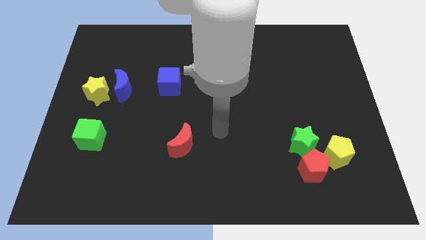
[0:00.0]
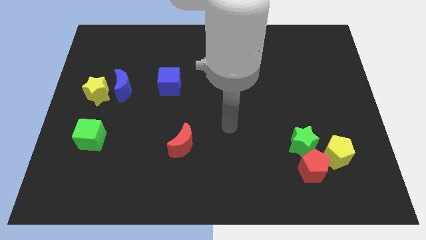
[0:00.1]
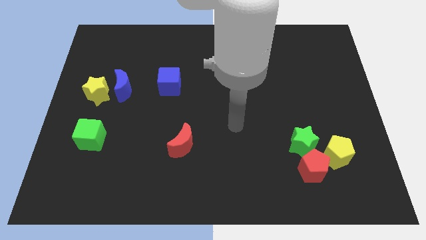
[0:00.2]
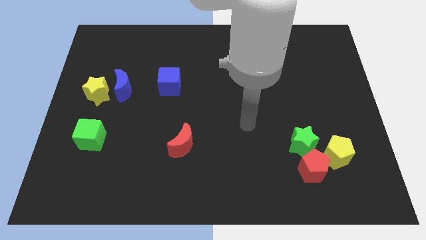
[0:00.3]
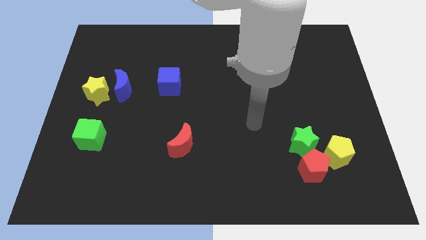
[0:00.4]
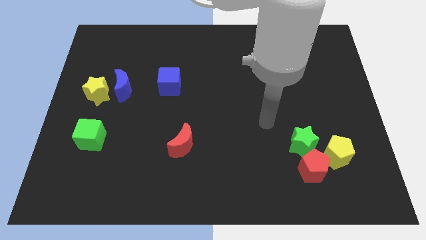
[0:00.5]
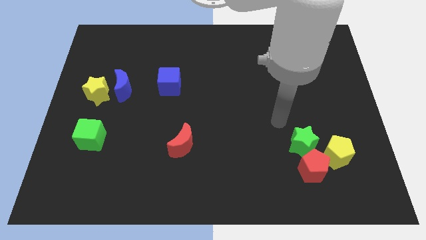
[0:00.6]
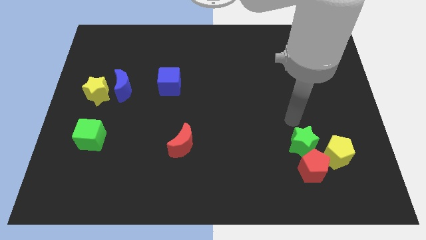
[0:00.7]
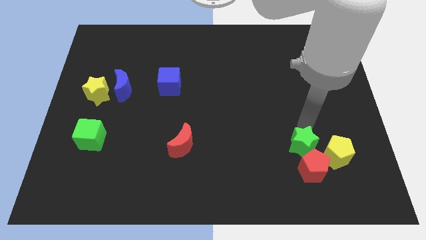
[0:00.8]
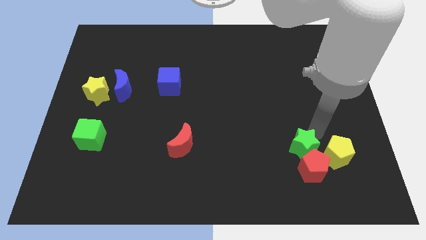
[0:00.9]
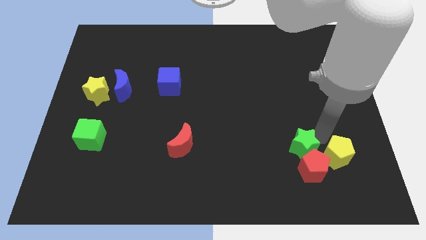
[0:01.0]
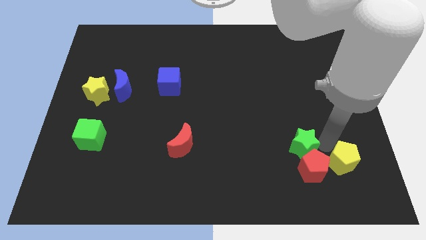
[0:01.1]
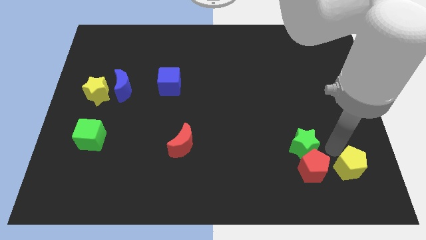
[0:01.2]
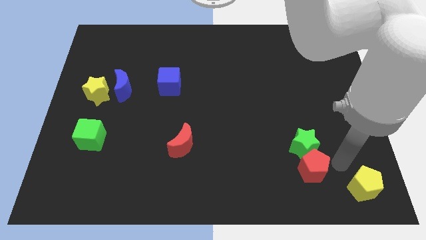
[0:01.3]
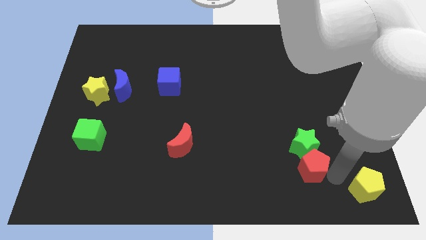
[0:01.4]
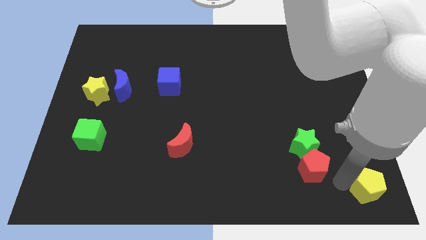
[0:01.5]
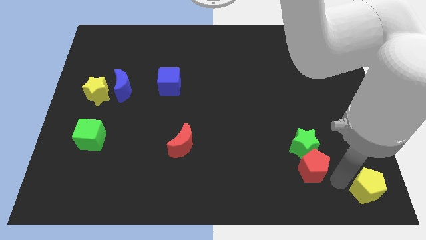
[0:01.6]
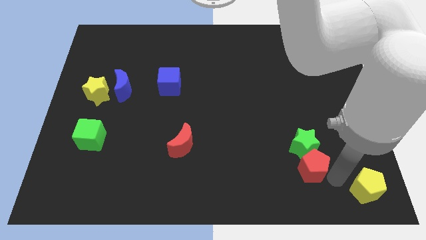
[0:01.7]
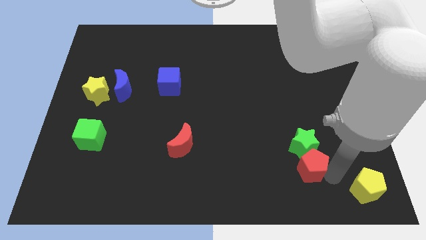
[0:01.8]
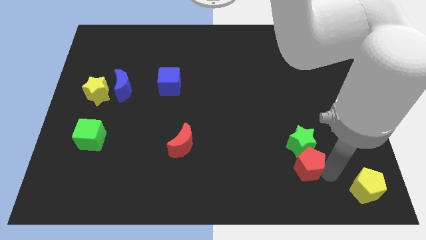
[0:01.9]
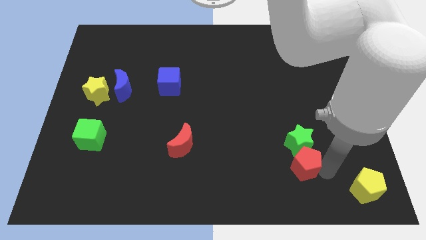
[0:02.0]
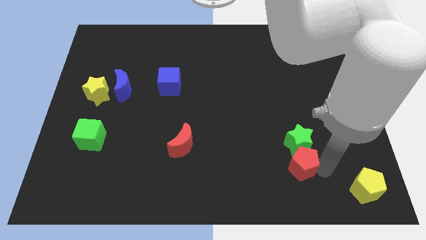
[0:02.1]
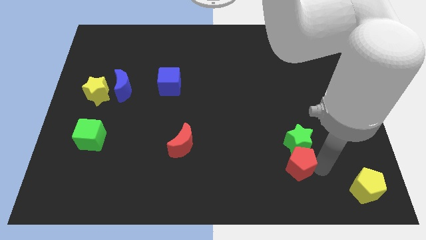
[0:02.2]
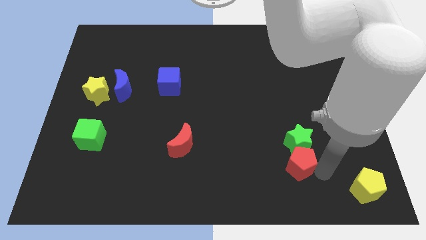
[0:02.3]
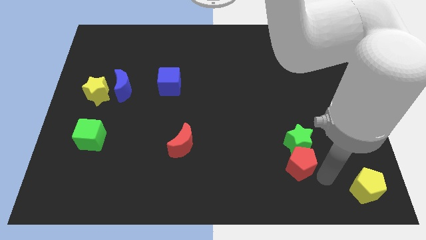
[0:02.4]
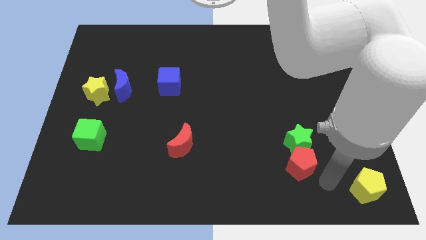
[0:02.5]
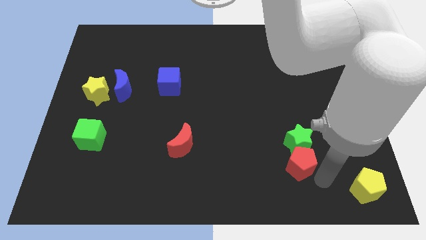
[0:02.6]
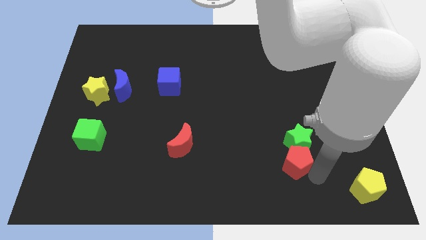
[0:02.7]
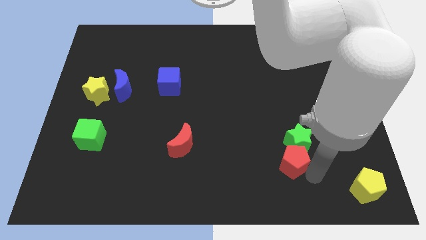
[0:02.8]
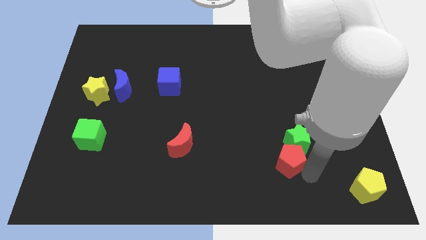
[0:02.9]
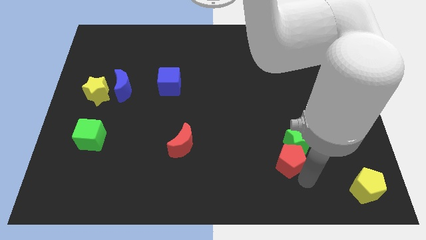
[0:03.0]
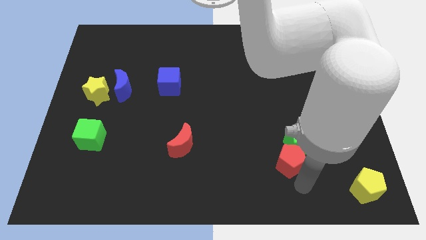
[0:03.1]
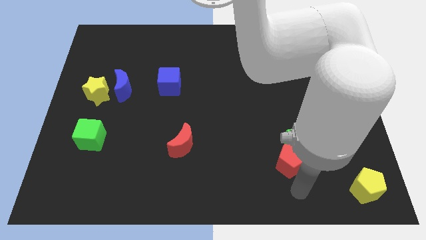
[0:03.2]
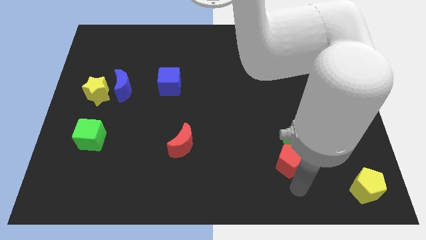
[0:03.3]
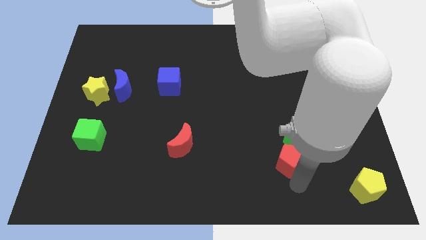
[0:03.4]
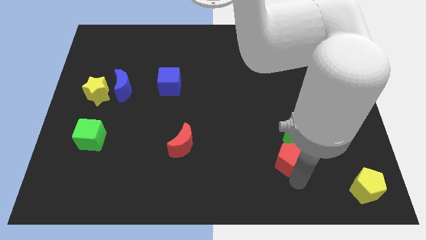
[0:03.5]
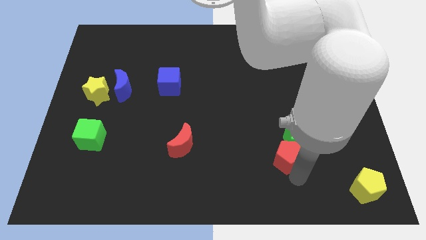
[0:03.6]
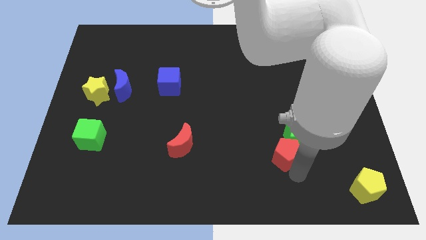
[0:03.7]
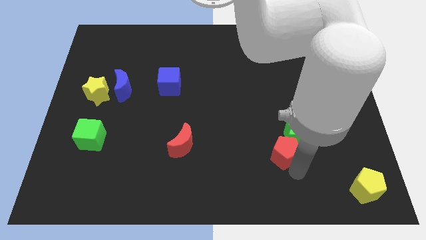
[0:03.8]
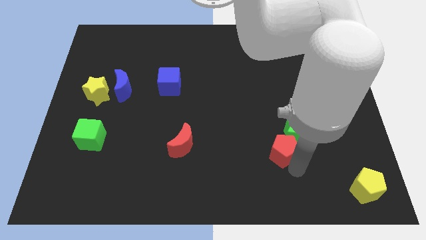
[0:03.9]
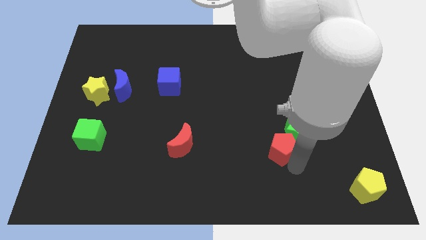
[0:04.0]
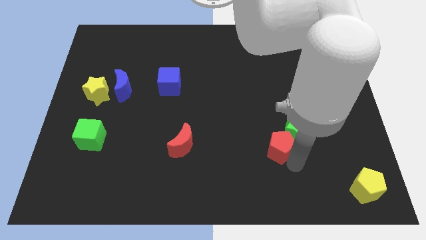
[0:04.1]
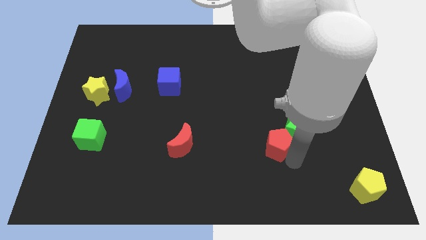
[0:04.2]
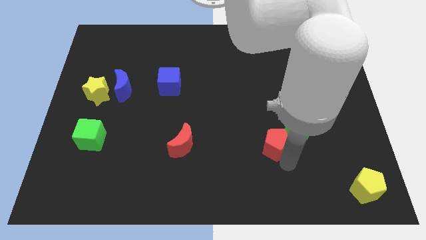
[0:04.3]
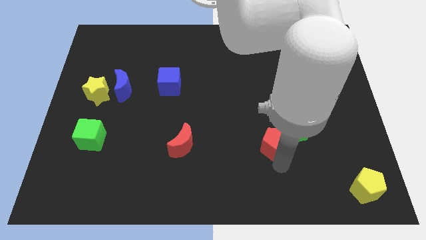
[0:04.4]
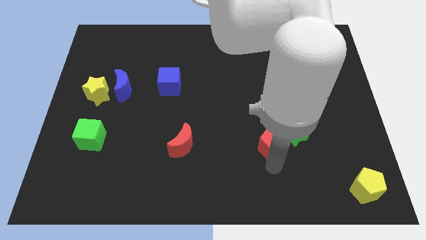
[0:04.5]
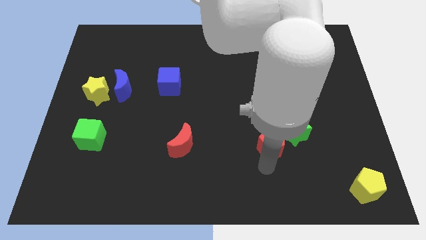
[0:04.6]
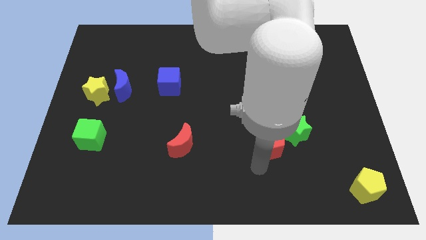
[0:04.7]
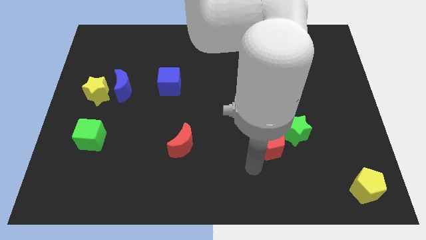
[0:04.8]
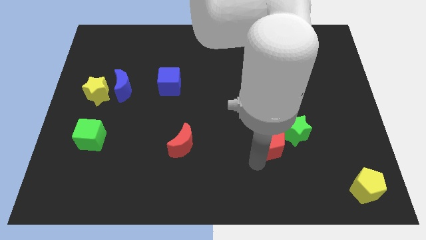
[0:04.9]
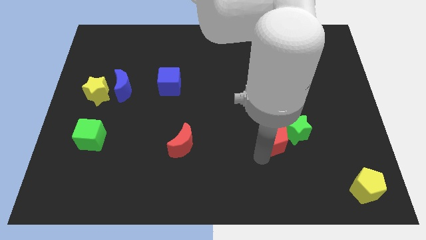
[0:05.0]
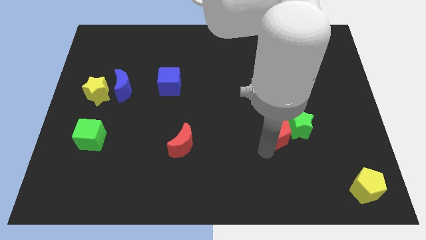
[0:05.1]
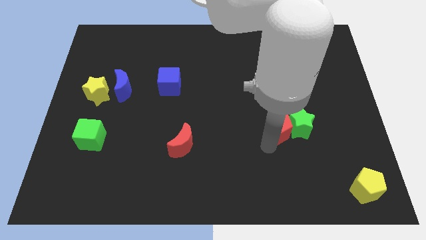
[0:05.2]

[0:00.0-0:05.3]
push the red pentagon slightly up

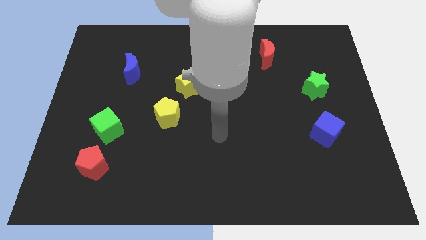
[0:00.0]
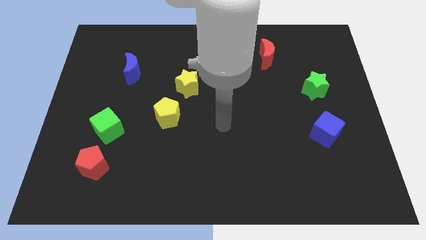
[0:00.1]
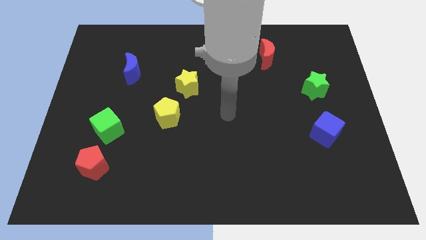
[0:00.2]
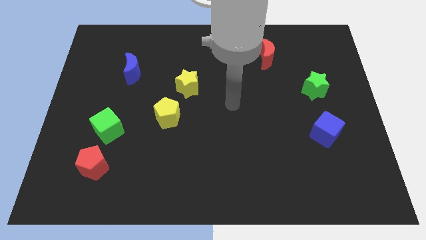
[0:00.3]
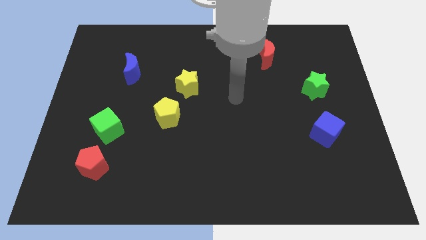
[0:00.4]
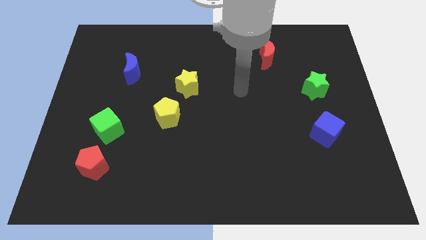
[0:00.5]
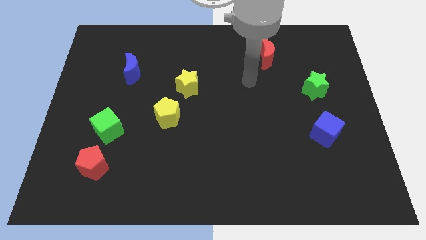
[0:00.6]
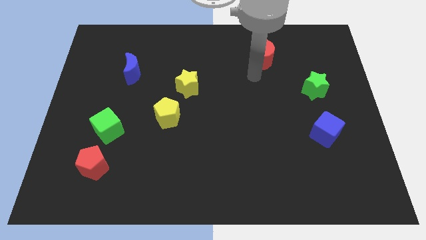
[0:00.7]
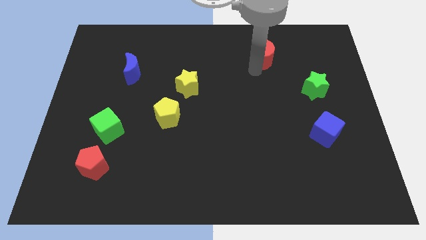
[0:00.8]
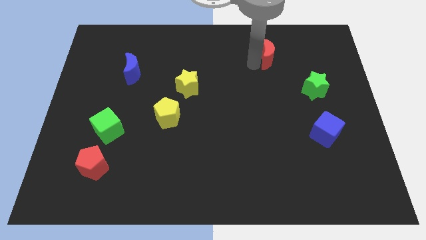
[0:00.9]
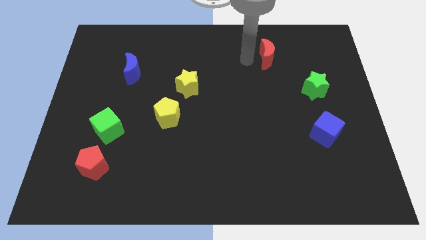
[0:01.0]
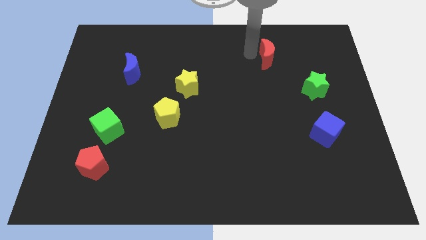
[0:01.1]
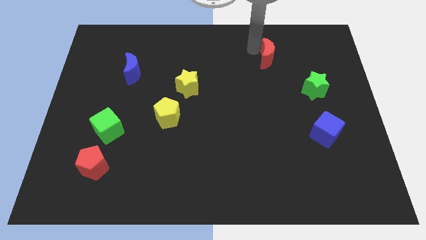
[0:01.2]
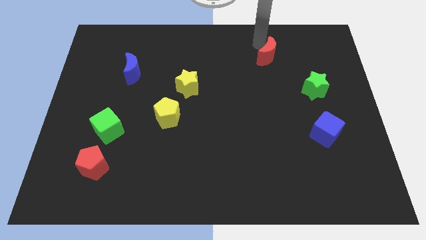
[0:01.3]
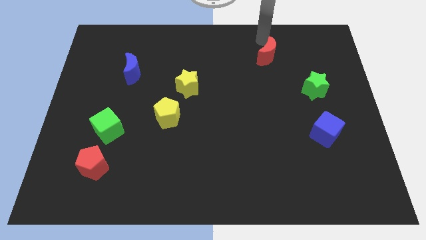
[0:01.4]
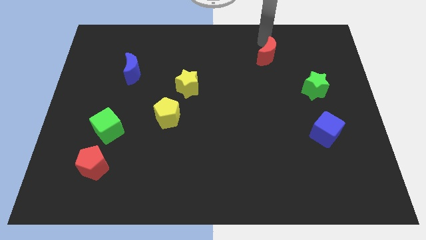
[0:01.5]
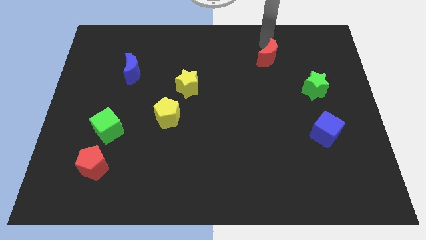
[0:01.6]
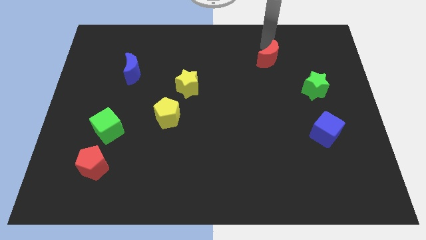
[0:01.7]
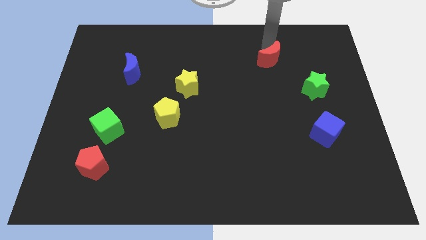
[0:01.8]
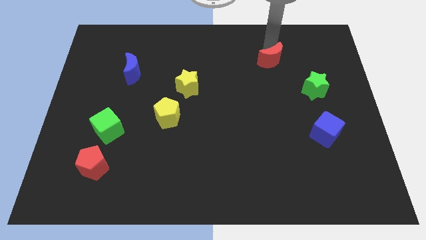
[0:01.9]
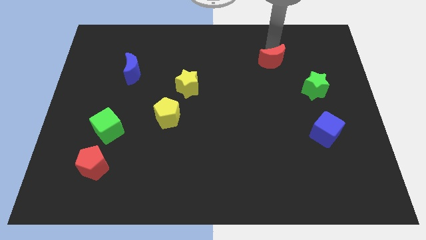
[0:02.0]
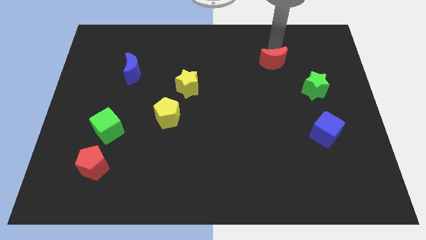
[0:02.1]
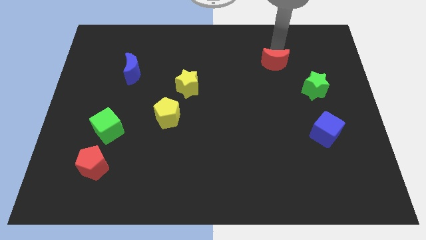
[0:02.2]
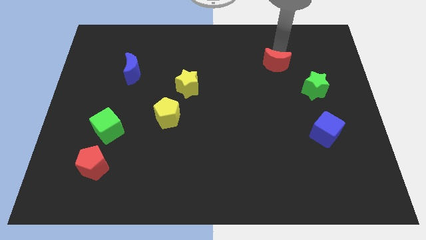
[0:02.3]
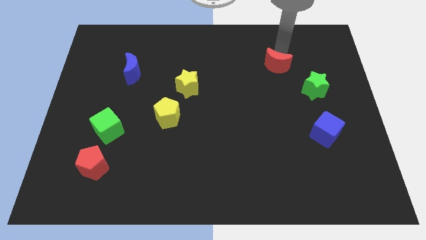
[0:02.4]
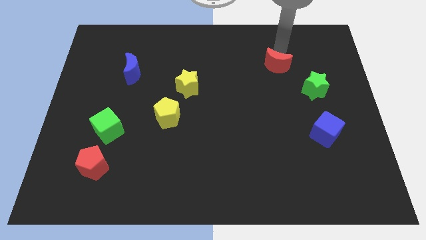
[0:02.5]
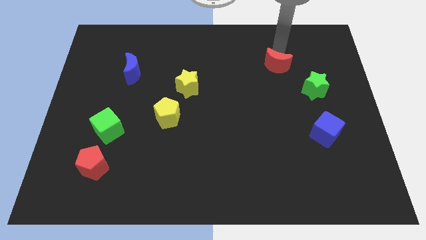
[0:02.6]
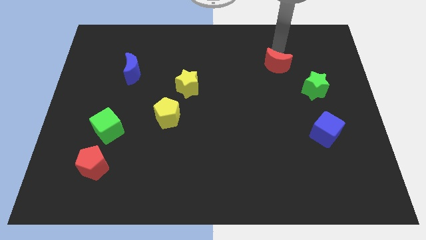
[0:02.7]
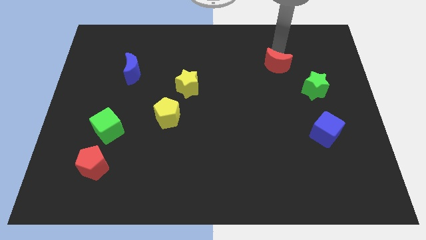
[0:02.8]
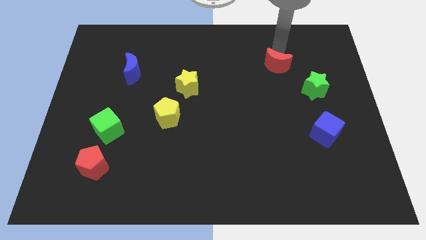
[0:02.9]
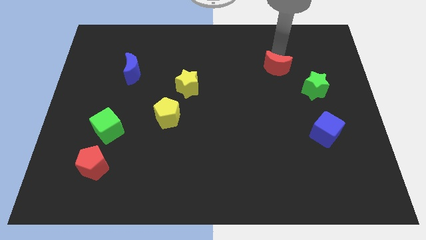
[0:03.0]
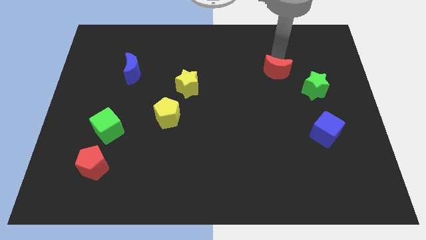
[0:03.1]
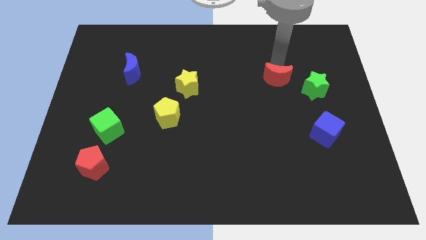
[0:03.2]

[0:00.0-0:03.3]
slightly push the red moon downwards
